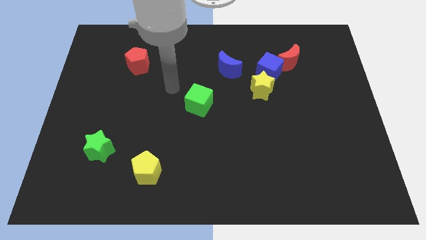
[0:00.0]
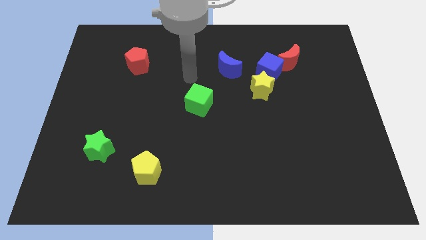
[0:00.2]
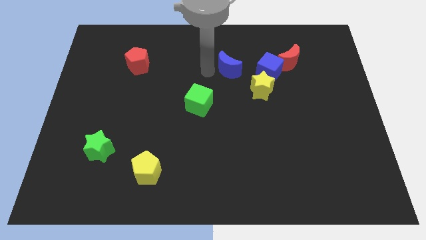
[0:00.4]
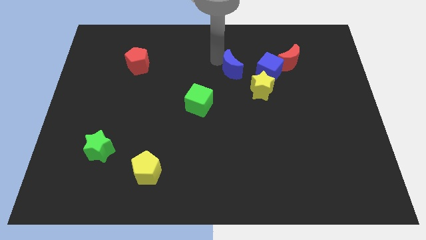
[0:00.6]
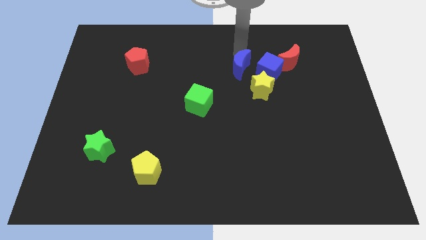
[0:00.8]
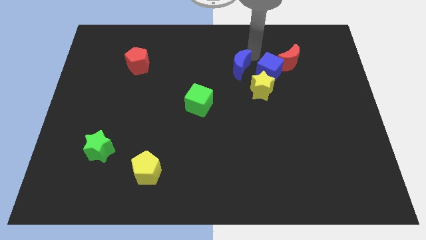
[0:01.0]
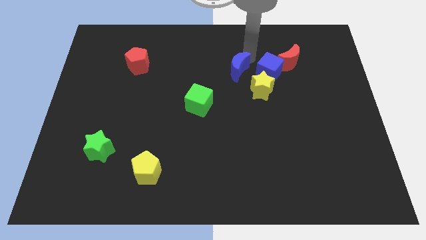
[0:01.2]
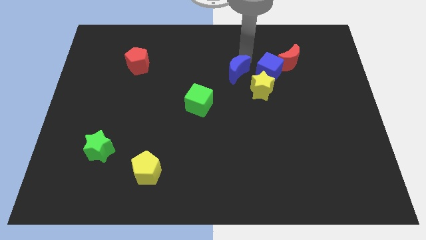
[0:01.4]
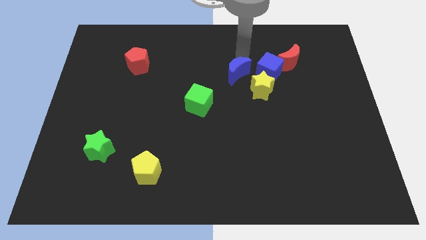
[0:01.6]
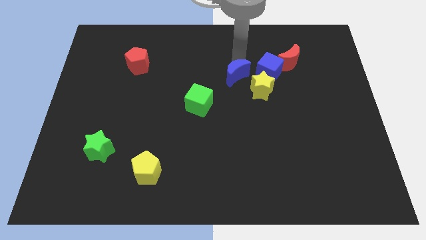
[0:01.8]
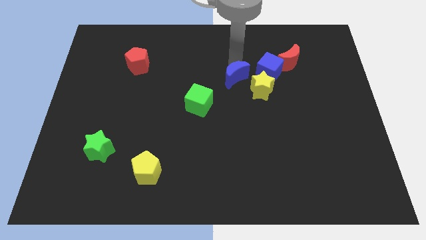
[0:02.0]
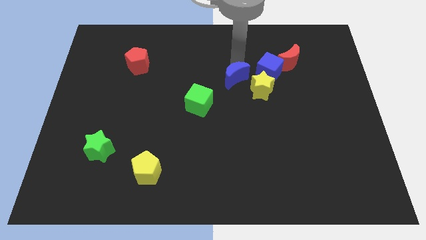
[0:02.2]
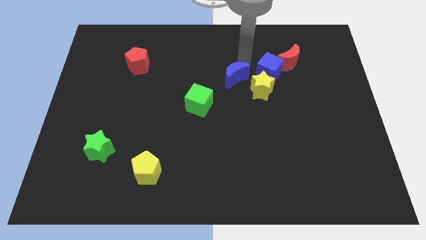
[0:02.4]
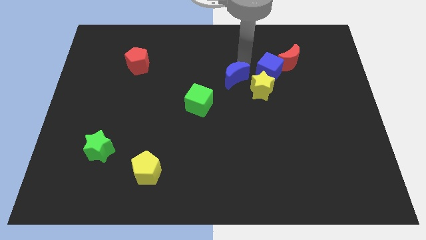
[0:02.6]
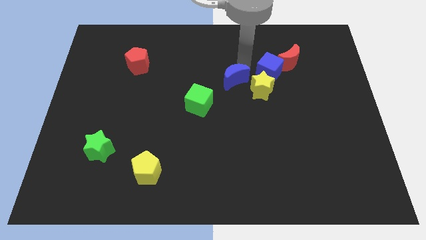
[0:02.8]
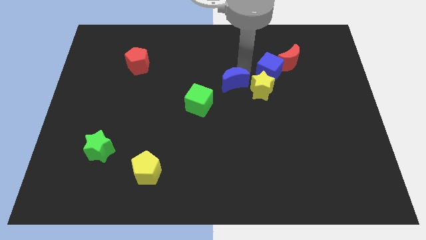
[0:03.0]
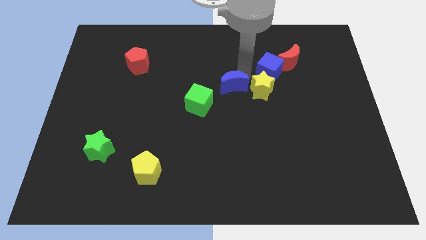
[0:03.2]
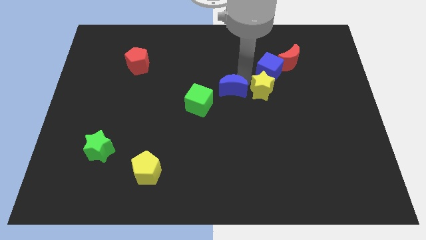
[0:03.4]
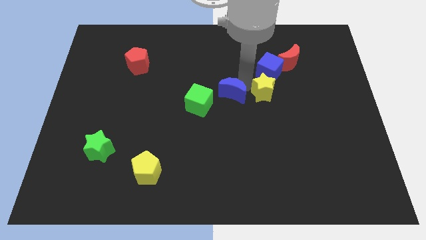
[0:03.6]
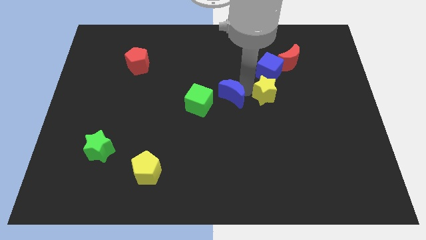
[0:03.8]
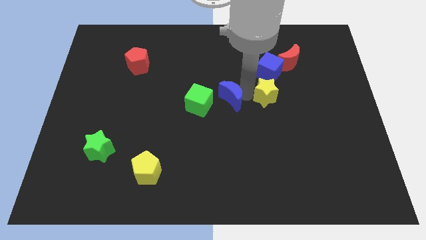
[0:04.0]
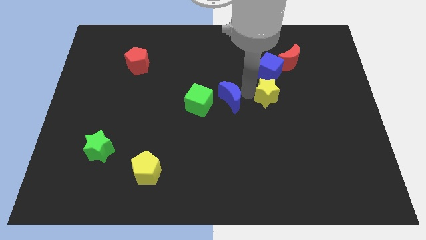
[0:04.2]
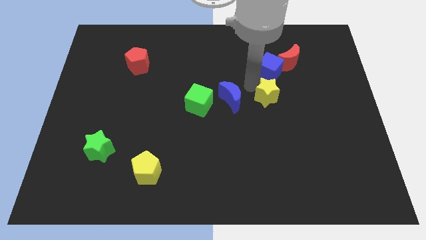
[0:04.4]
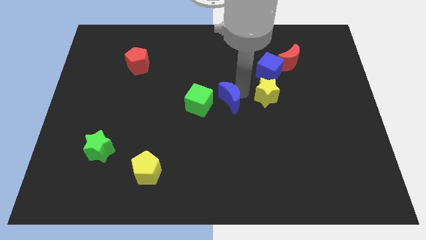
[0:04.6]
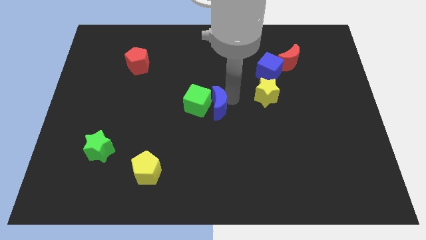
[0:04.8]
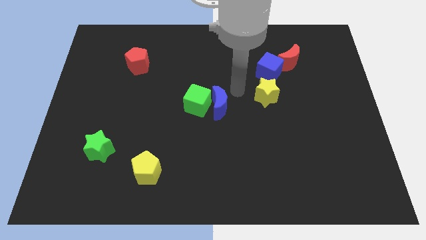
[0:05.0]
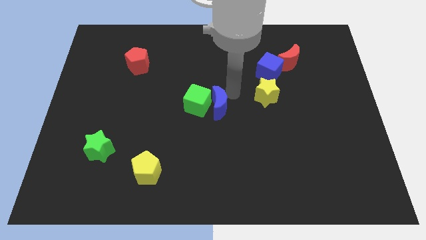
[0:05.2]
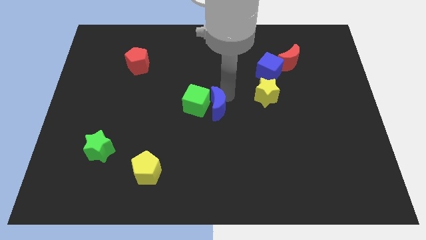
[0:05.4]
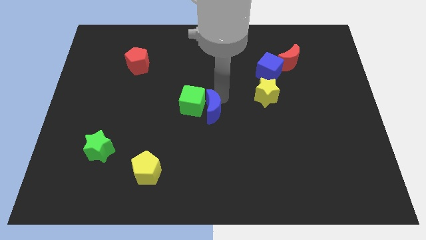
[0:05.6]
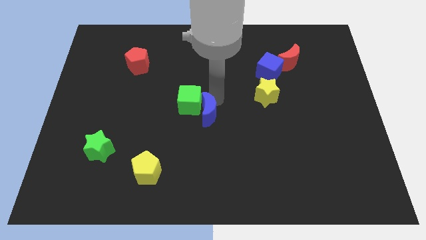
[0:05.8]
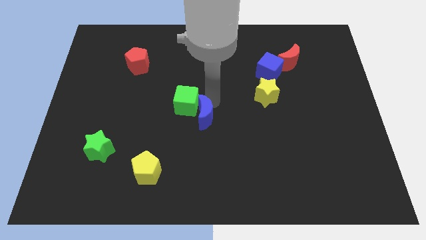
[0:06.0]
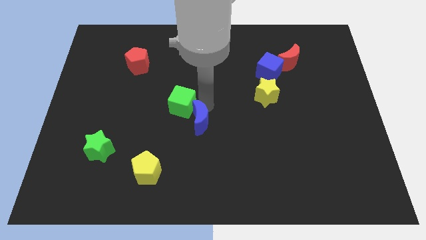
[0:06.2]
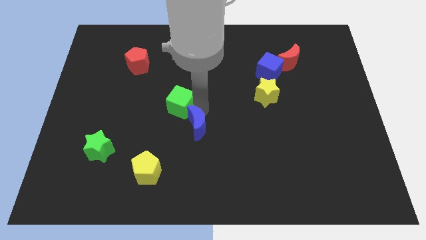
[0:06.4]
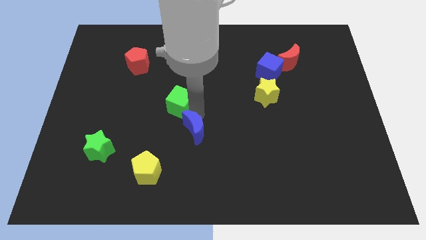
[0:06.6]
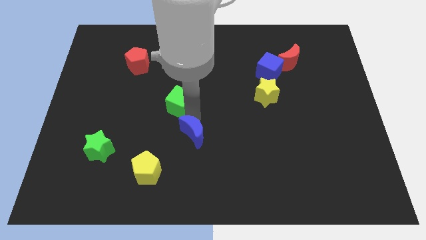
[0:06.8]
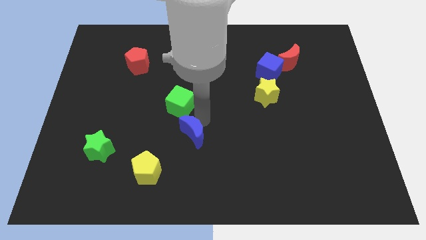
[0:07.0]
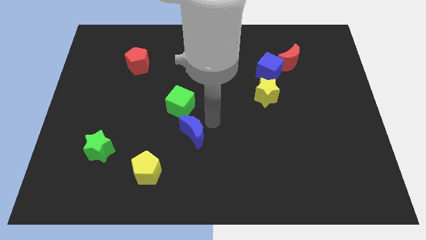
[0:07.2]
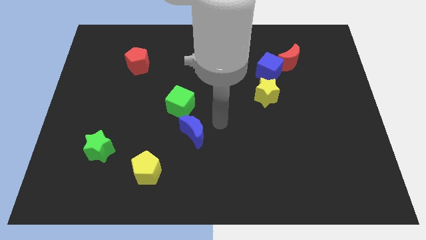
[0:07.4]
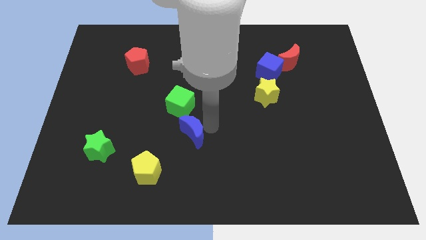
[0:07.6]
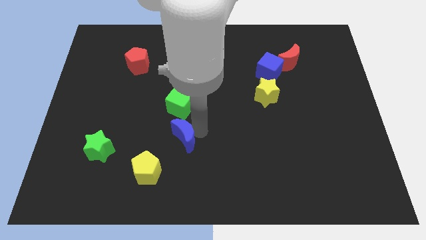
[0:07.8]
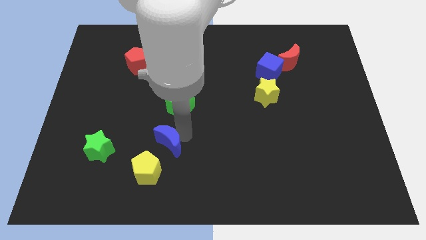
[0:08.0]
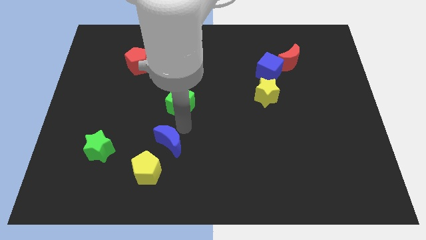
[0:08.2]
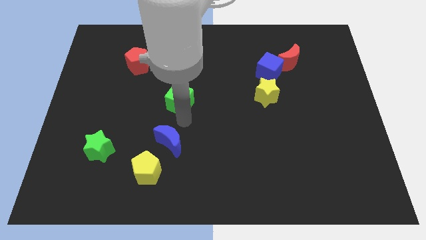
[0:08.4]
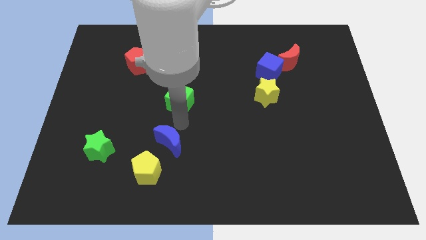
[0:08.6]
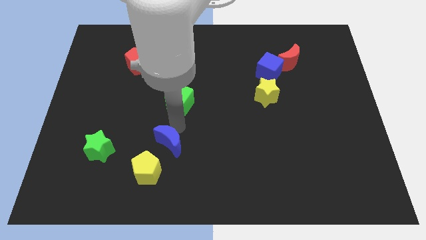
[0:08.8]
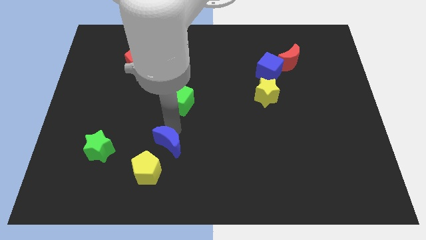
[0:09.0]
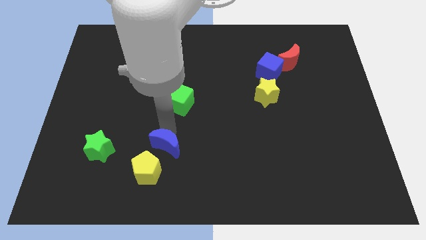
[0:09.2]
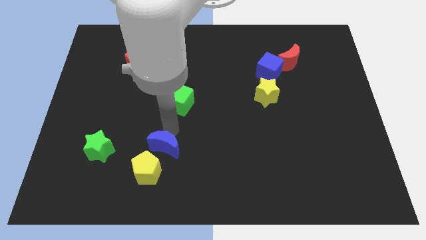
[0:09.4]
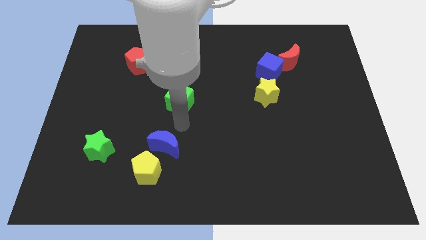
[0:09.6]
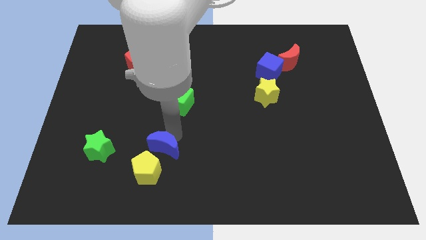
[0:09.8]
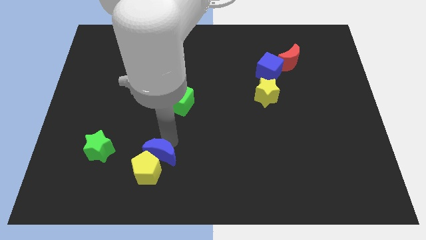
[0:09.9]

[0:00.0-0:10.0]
move the blue moon close to the yellow pentagon

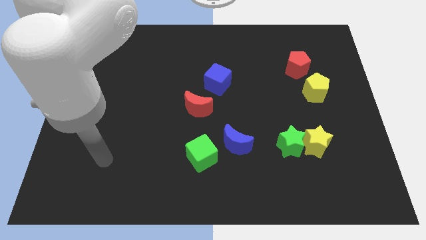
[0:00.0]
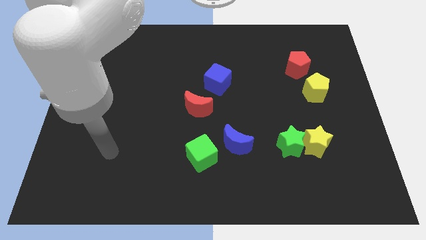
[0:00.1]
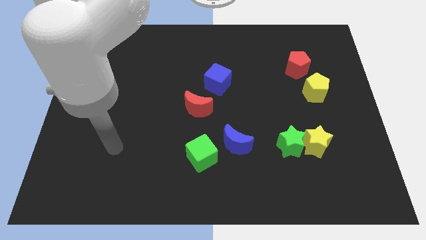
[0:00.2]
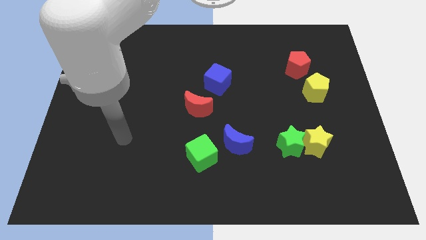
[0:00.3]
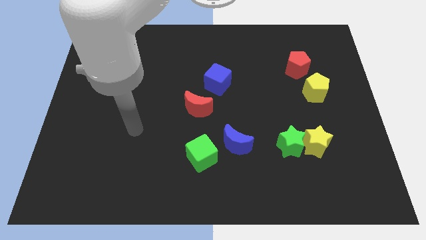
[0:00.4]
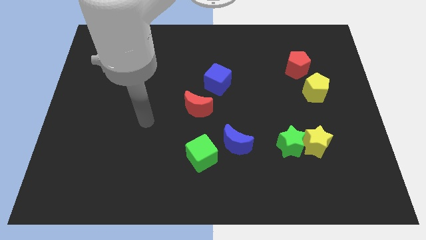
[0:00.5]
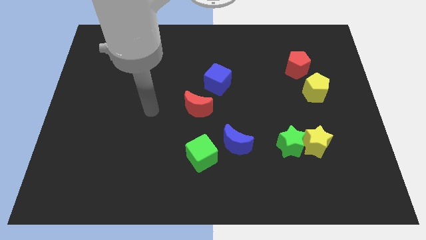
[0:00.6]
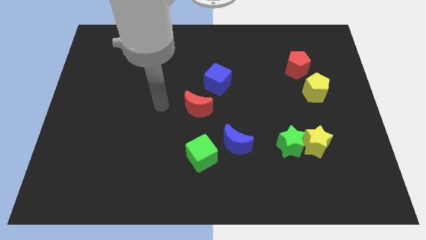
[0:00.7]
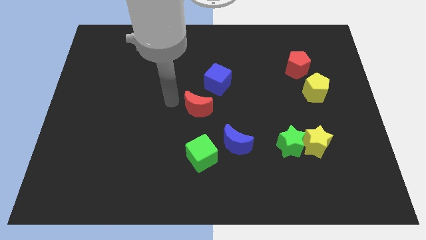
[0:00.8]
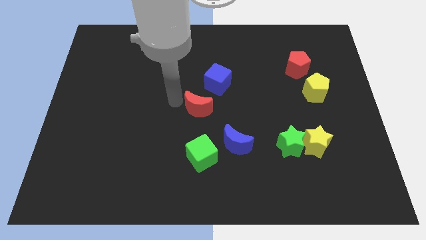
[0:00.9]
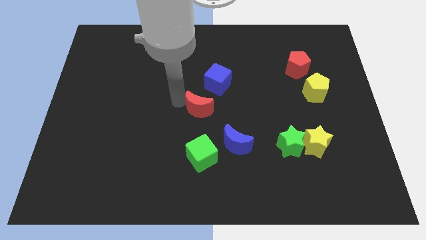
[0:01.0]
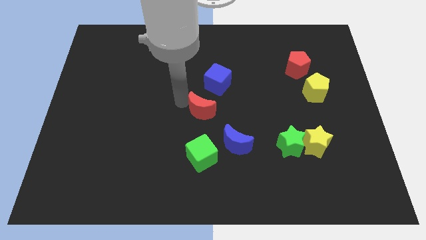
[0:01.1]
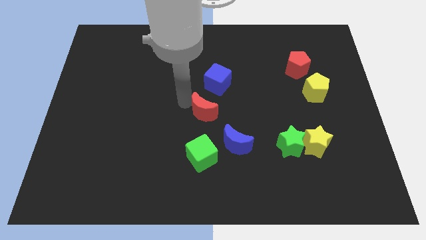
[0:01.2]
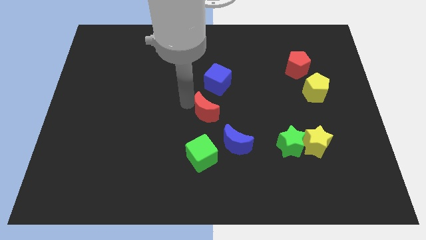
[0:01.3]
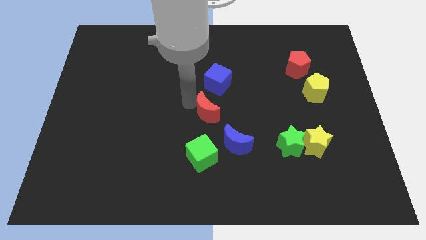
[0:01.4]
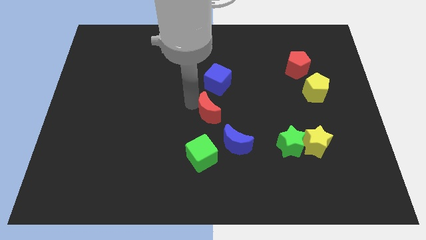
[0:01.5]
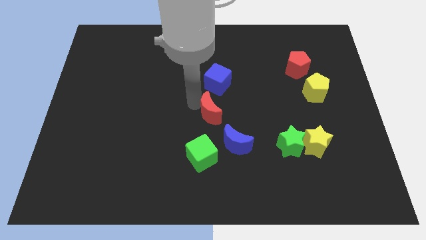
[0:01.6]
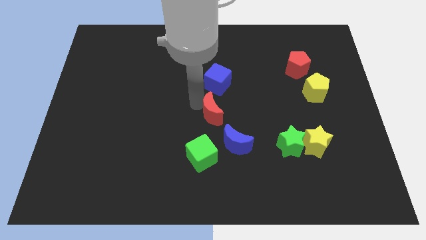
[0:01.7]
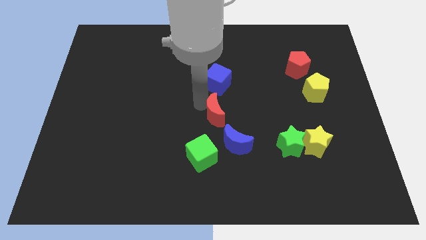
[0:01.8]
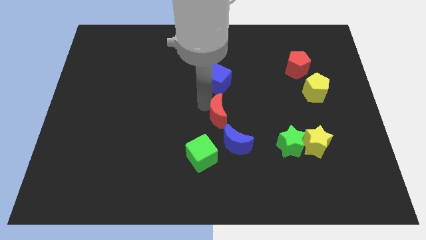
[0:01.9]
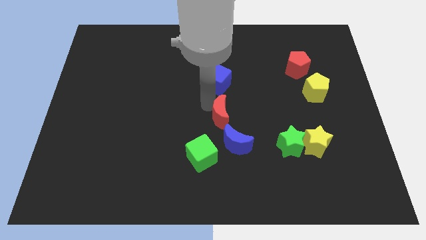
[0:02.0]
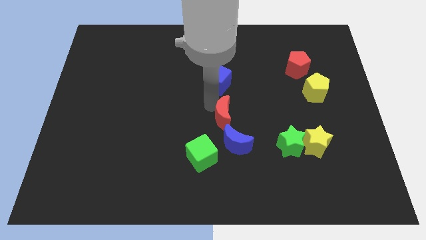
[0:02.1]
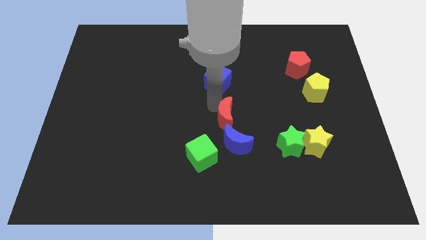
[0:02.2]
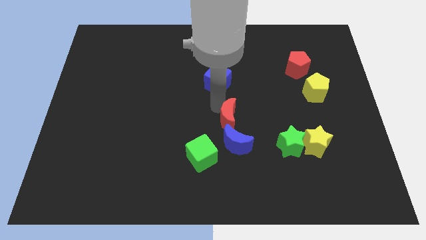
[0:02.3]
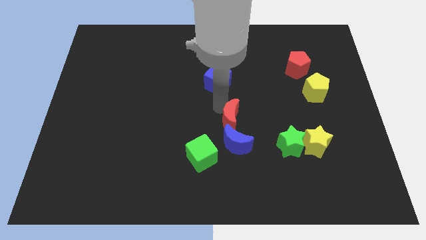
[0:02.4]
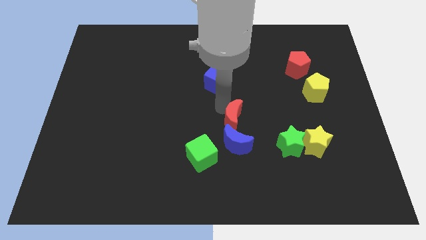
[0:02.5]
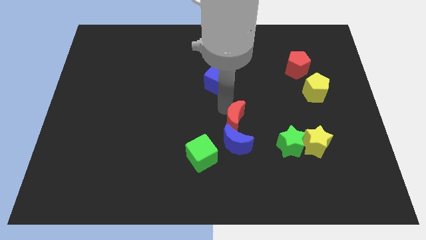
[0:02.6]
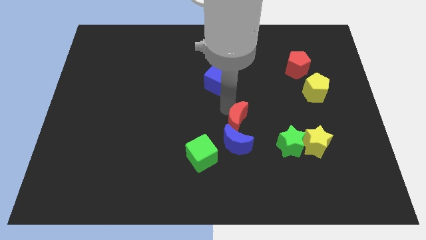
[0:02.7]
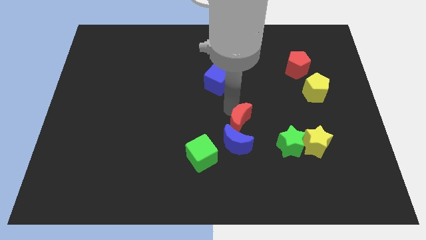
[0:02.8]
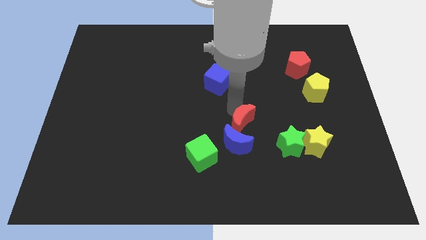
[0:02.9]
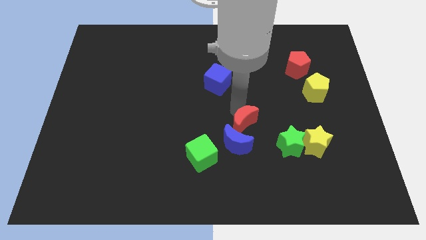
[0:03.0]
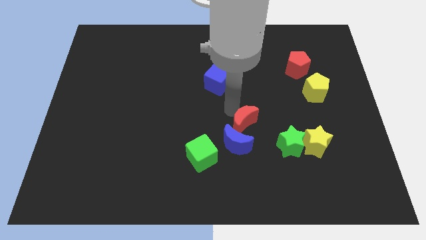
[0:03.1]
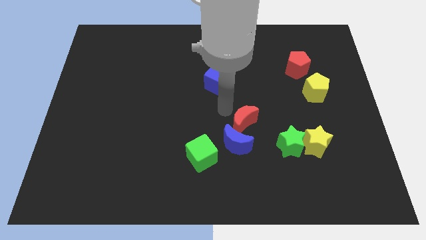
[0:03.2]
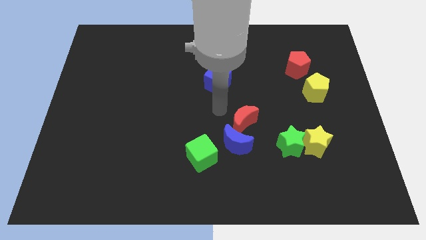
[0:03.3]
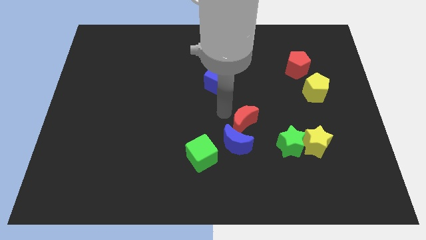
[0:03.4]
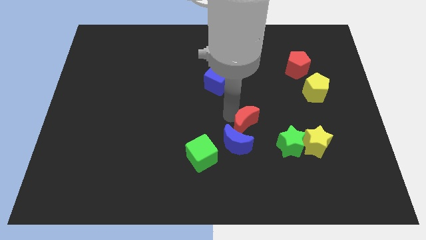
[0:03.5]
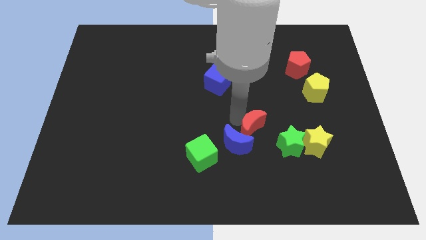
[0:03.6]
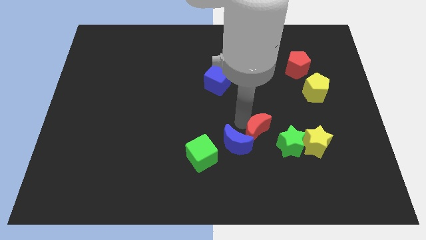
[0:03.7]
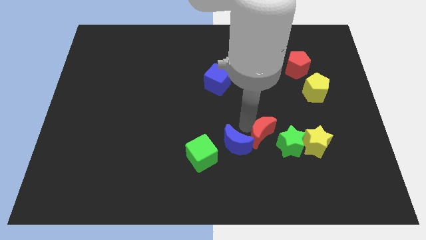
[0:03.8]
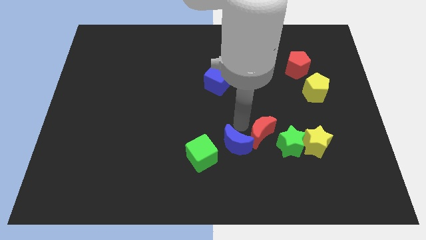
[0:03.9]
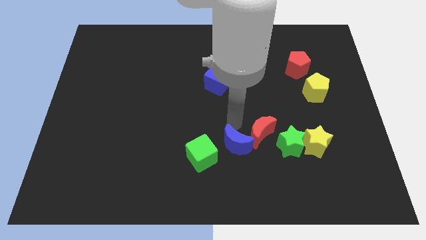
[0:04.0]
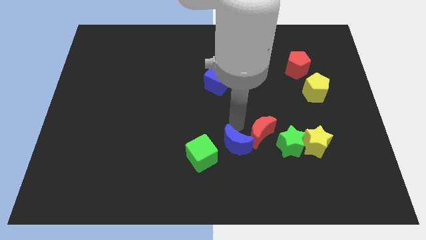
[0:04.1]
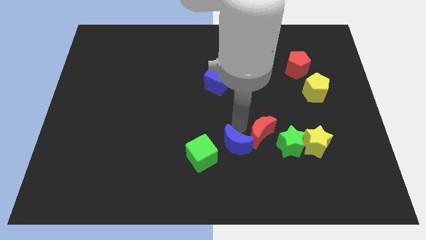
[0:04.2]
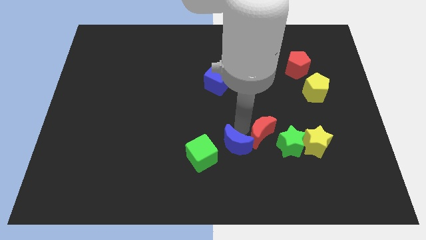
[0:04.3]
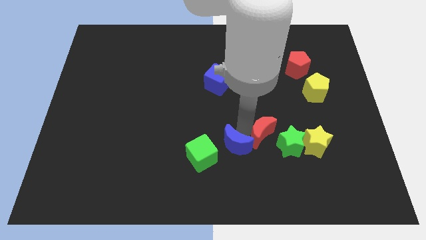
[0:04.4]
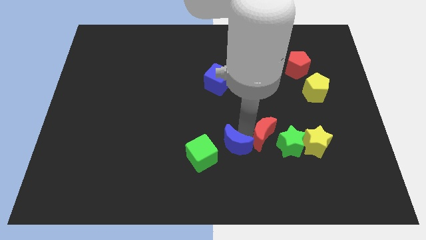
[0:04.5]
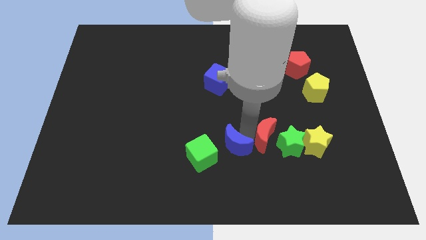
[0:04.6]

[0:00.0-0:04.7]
slide the red moon towards the green star
